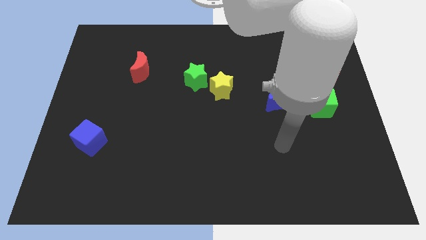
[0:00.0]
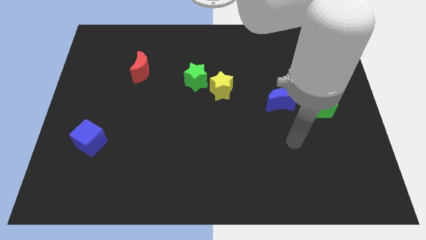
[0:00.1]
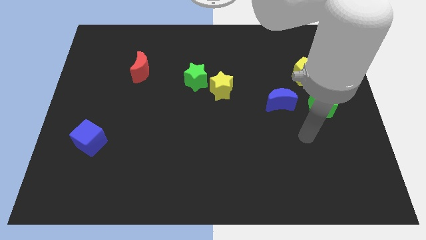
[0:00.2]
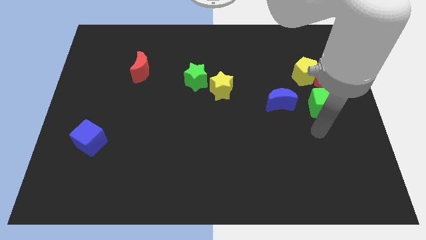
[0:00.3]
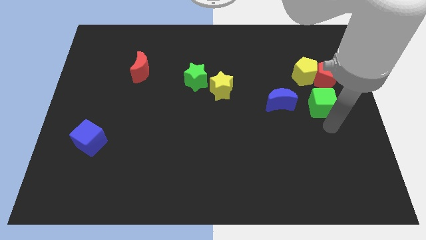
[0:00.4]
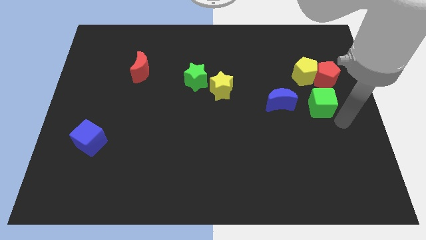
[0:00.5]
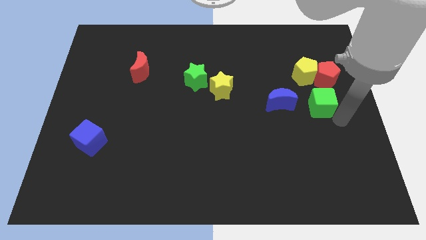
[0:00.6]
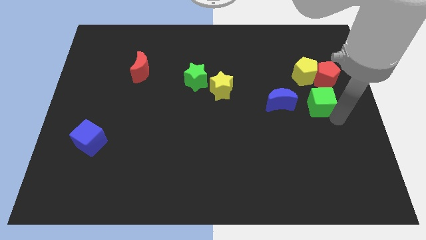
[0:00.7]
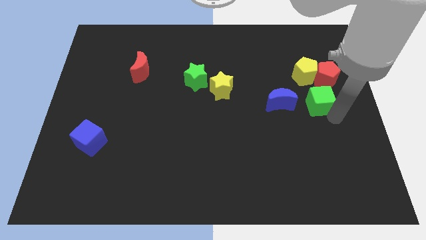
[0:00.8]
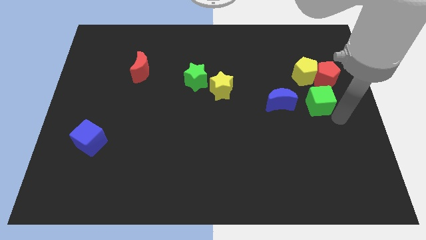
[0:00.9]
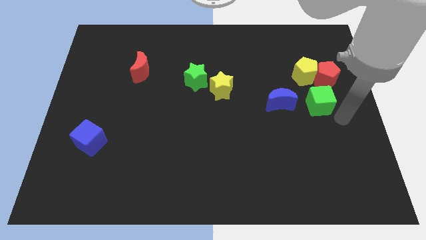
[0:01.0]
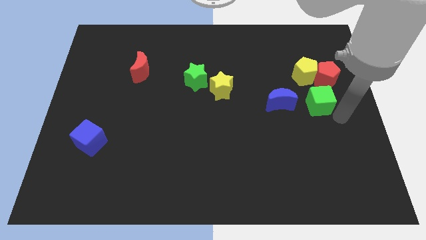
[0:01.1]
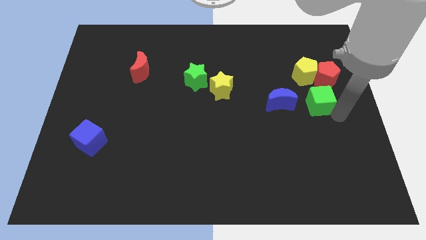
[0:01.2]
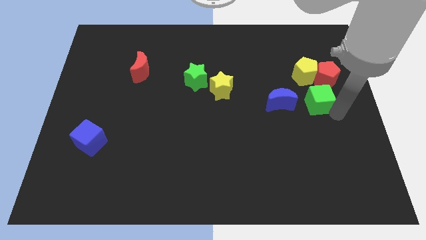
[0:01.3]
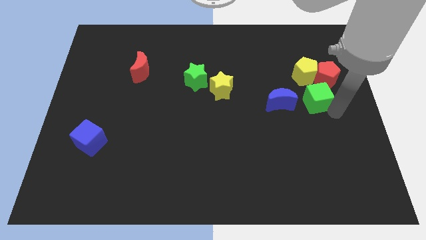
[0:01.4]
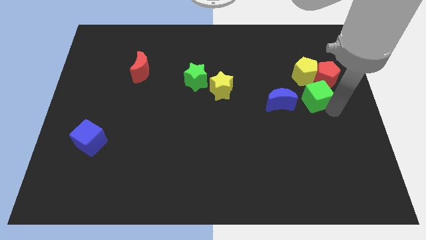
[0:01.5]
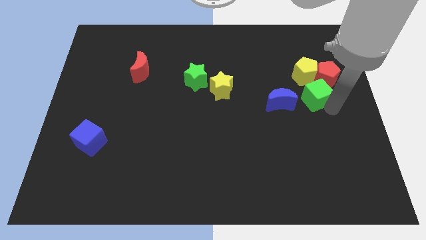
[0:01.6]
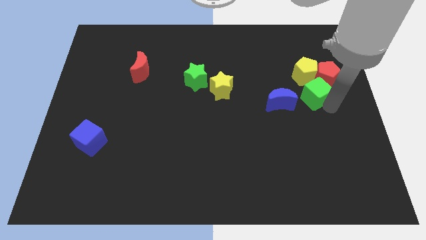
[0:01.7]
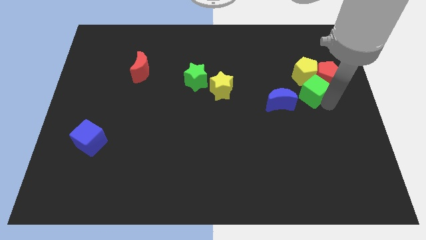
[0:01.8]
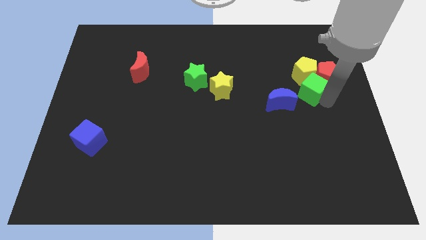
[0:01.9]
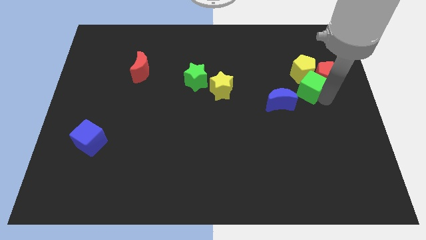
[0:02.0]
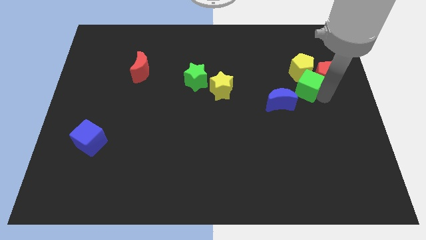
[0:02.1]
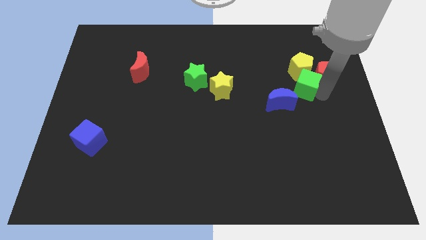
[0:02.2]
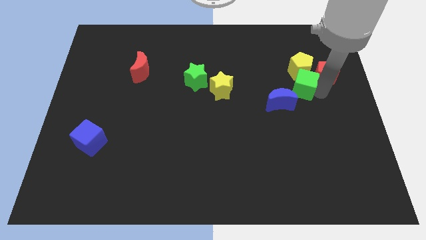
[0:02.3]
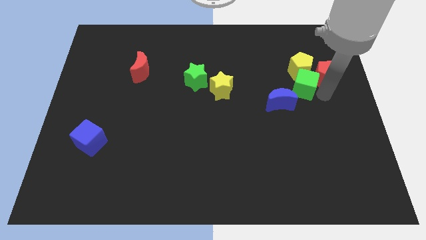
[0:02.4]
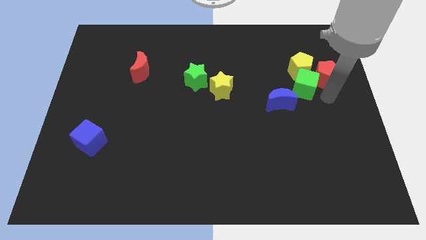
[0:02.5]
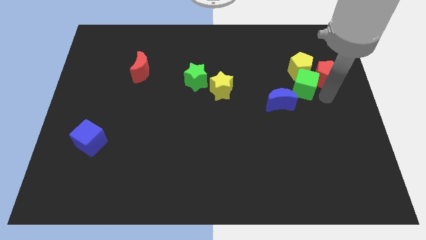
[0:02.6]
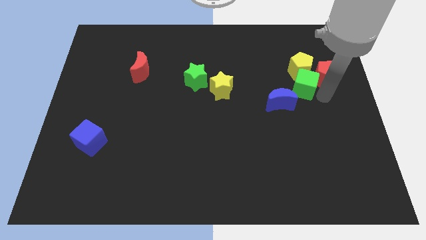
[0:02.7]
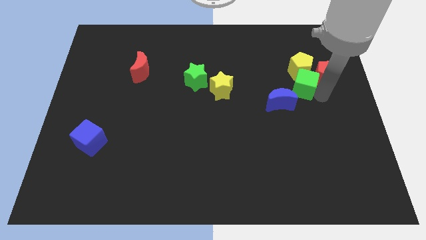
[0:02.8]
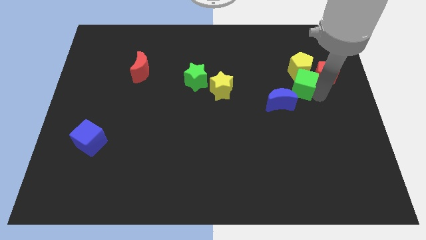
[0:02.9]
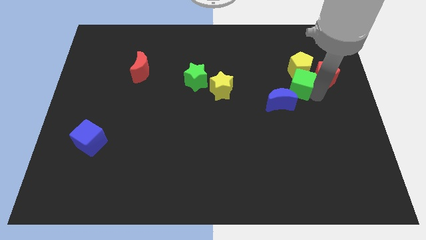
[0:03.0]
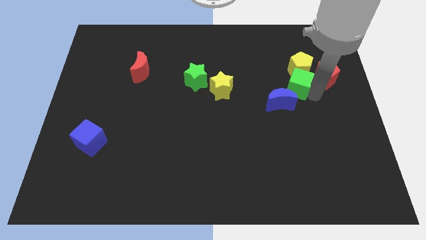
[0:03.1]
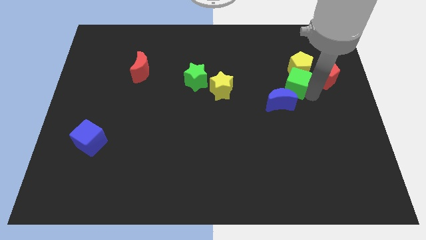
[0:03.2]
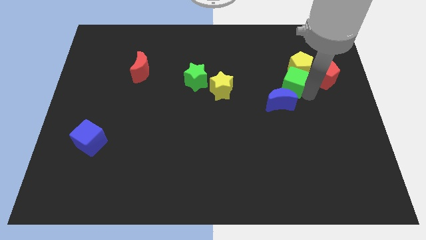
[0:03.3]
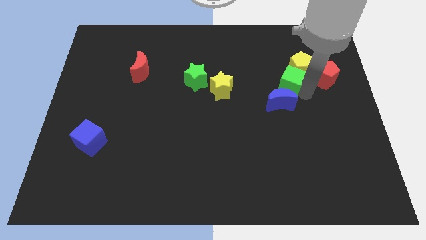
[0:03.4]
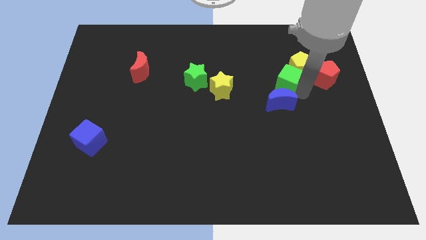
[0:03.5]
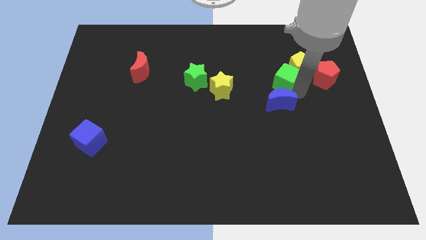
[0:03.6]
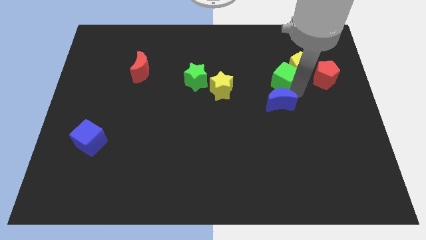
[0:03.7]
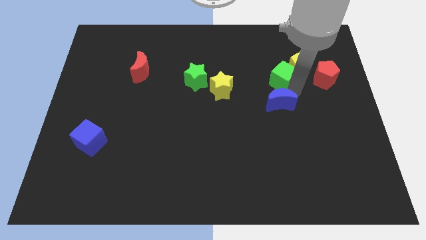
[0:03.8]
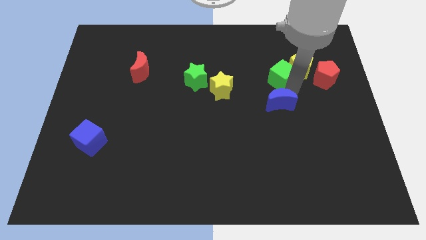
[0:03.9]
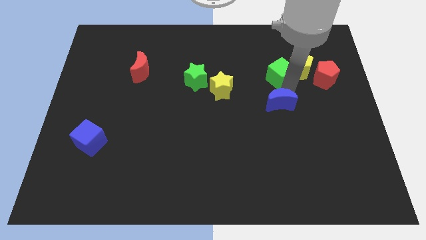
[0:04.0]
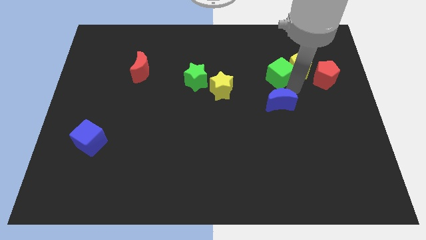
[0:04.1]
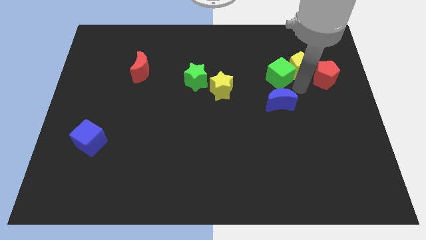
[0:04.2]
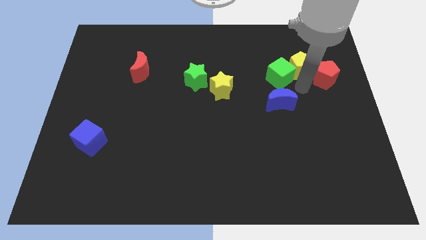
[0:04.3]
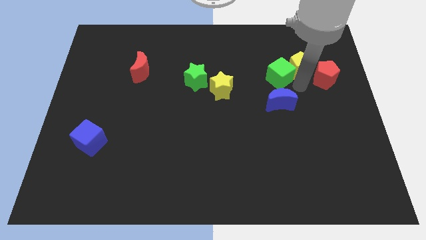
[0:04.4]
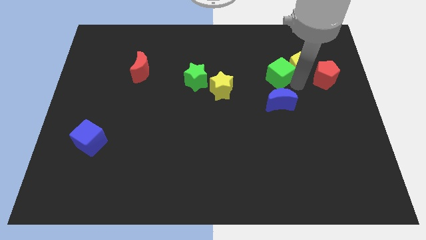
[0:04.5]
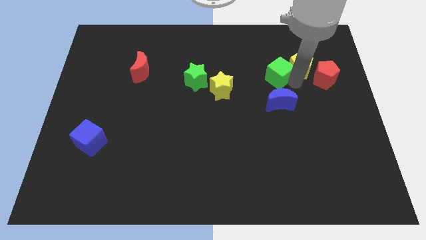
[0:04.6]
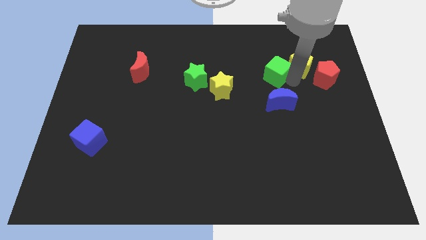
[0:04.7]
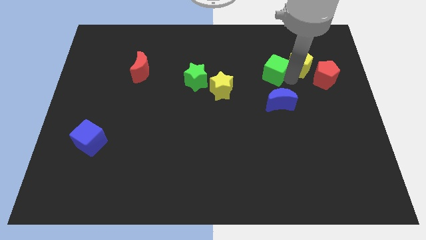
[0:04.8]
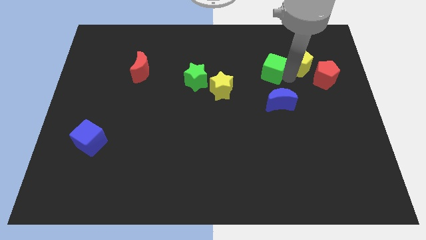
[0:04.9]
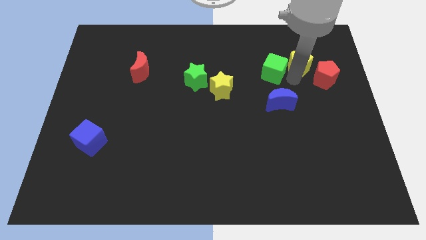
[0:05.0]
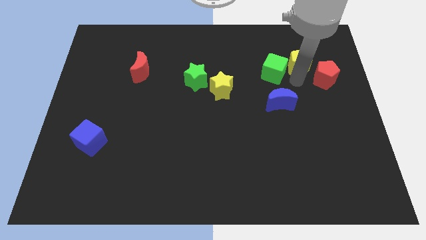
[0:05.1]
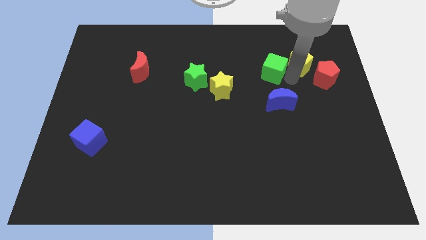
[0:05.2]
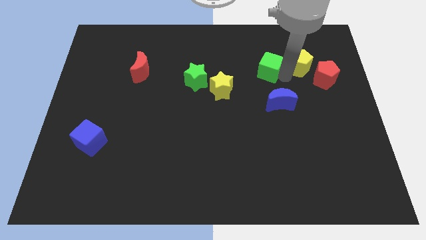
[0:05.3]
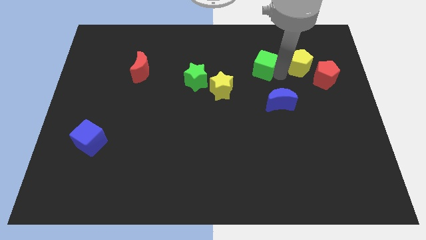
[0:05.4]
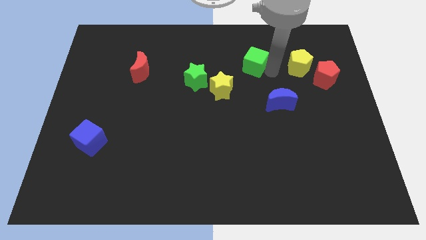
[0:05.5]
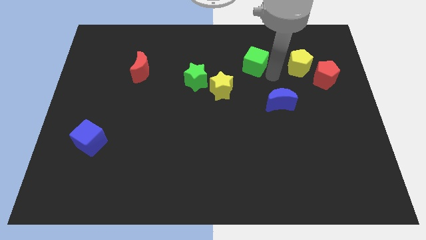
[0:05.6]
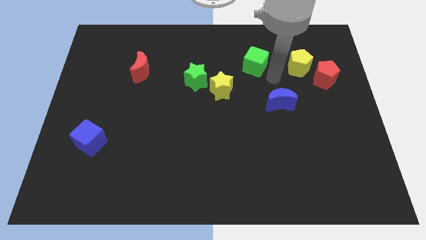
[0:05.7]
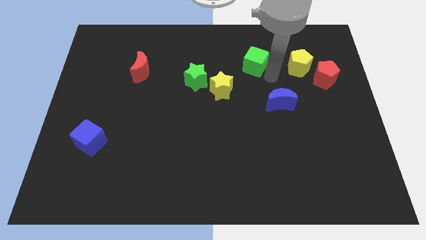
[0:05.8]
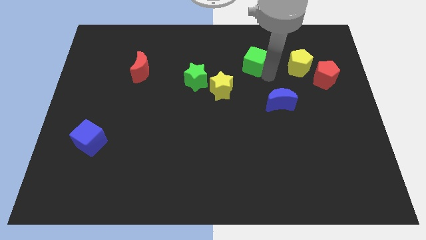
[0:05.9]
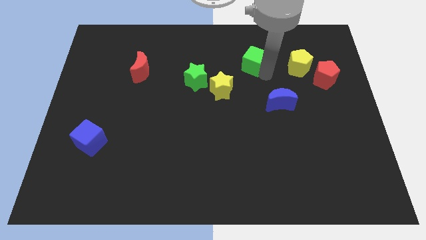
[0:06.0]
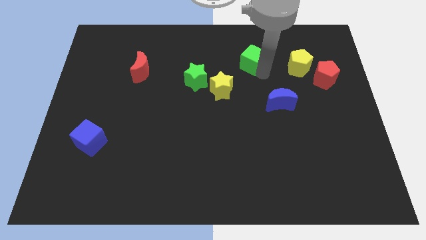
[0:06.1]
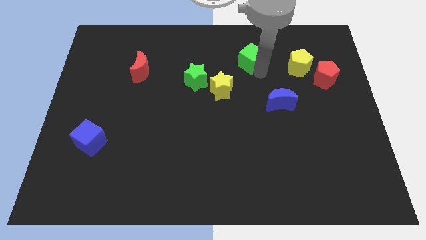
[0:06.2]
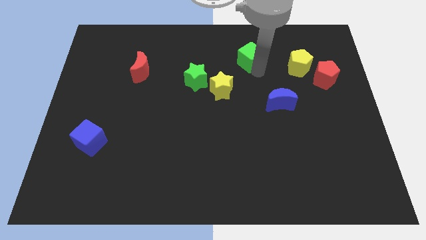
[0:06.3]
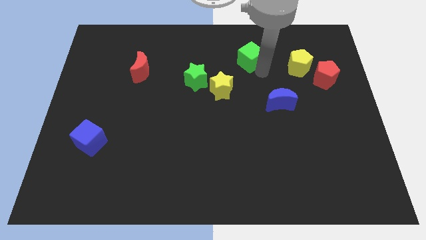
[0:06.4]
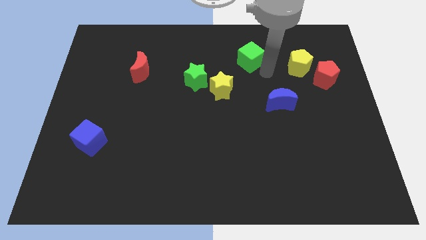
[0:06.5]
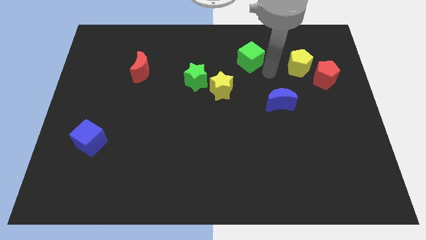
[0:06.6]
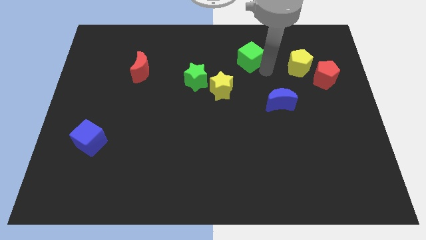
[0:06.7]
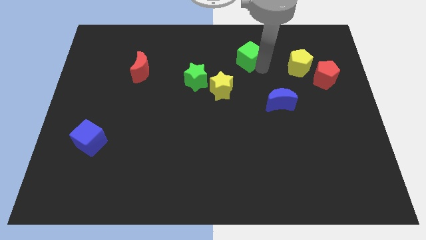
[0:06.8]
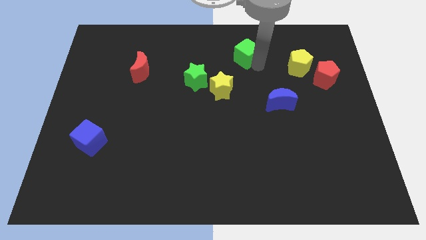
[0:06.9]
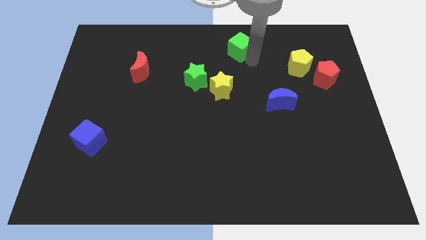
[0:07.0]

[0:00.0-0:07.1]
slide the green cube to the top side
